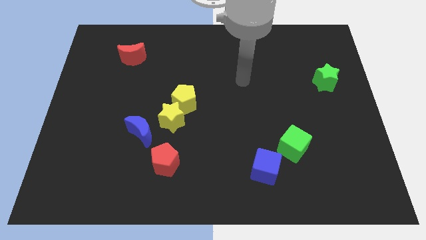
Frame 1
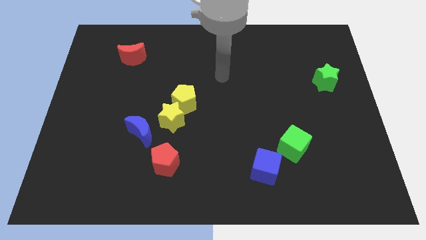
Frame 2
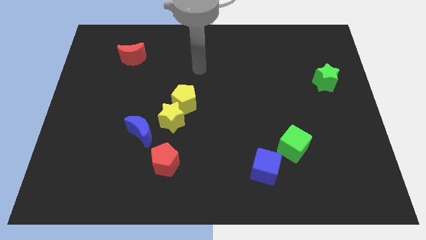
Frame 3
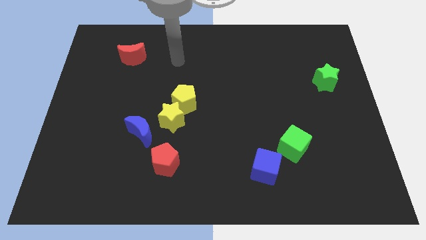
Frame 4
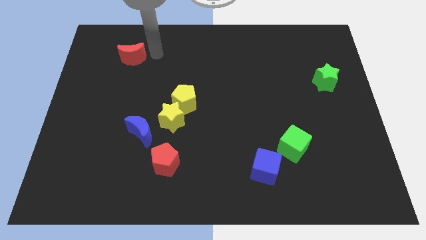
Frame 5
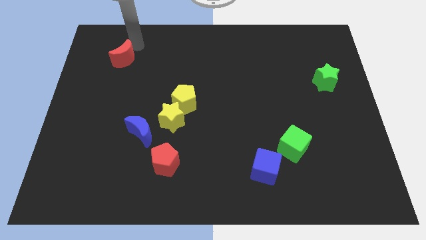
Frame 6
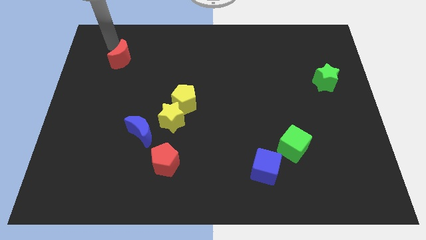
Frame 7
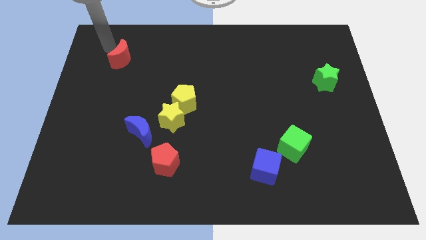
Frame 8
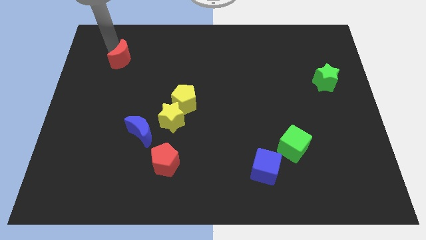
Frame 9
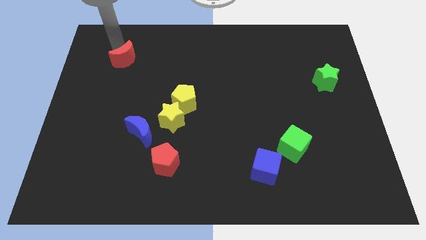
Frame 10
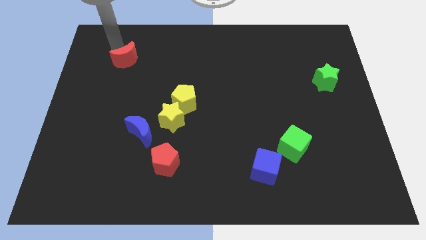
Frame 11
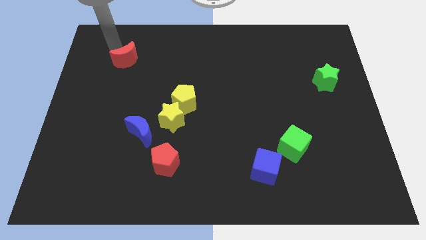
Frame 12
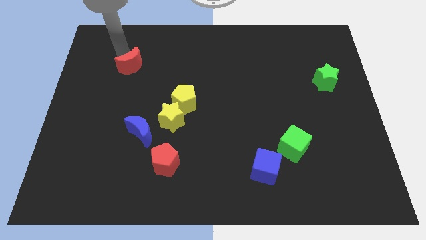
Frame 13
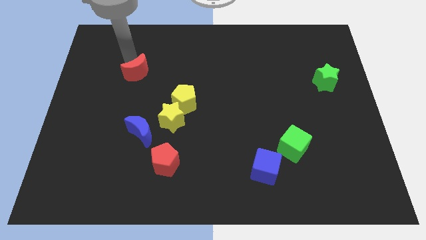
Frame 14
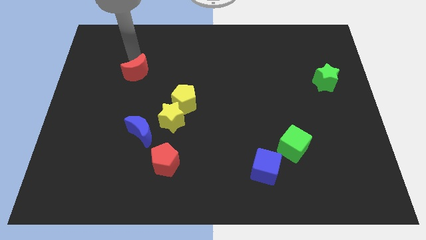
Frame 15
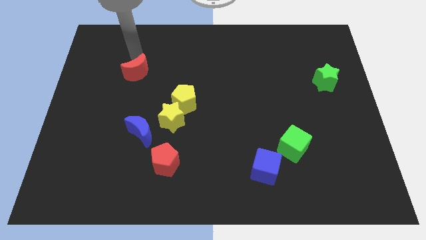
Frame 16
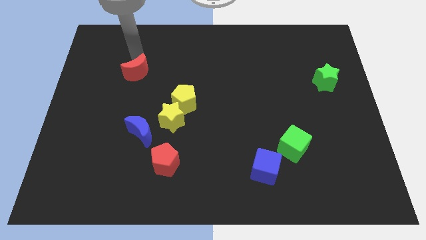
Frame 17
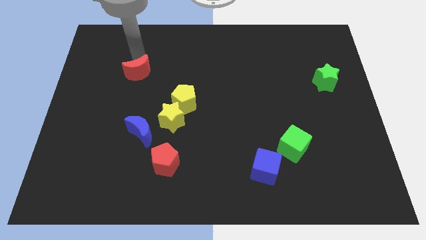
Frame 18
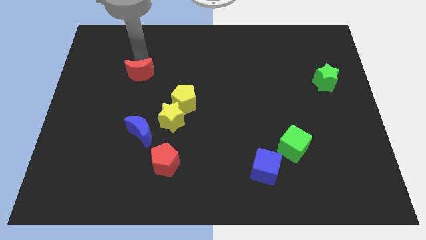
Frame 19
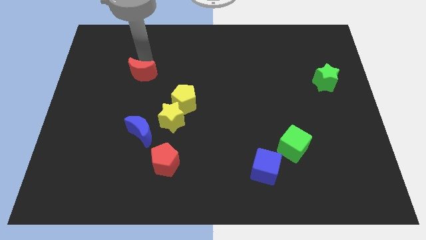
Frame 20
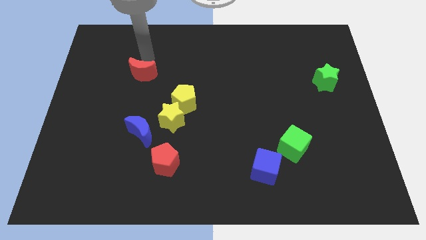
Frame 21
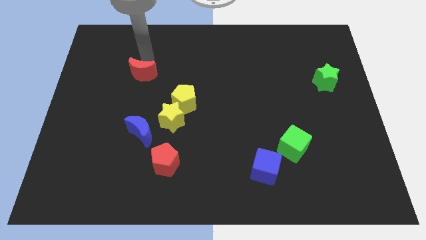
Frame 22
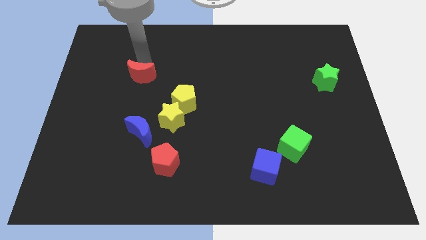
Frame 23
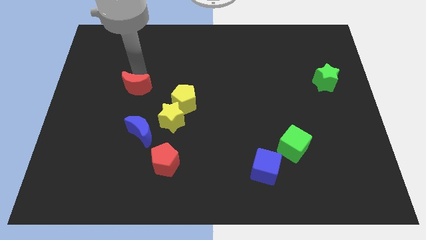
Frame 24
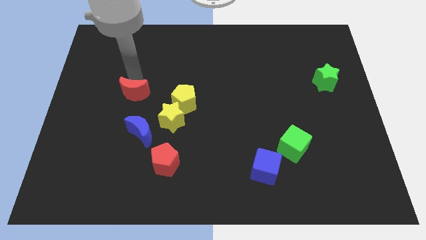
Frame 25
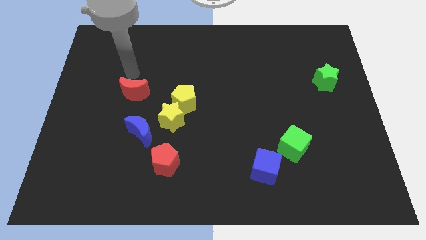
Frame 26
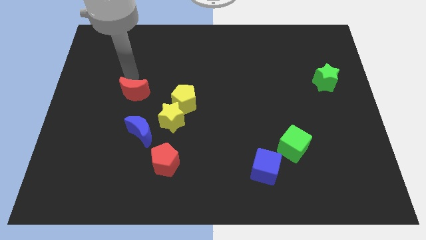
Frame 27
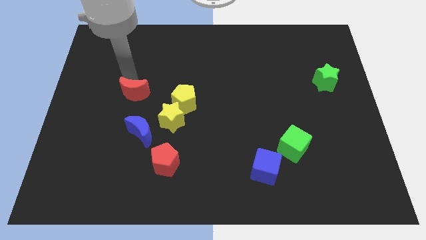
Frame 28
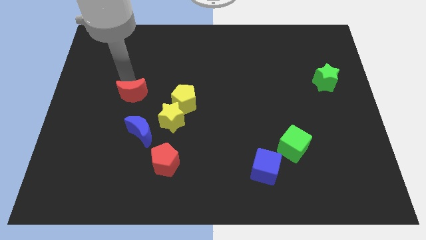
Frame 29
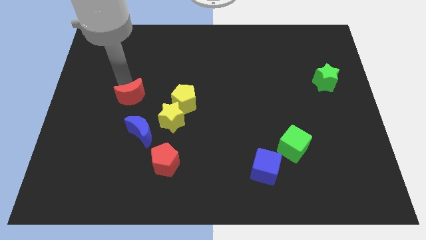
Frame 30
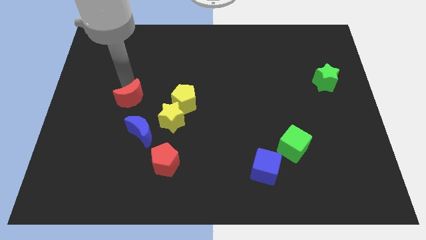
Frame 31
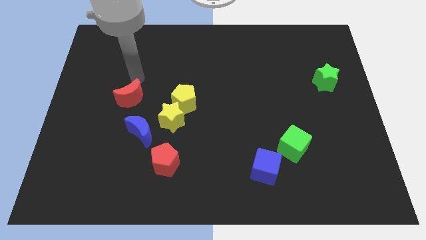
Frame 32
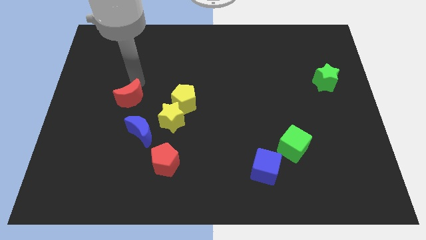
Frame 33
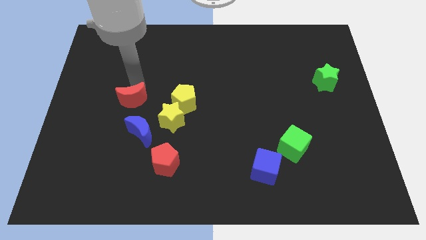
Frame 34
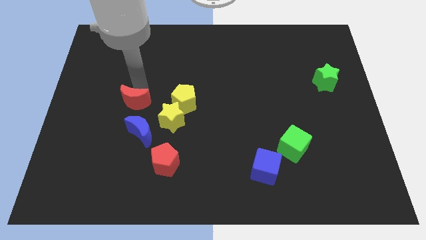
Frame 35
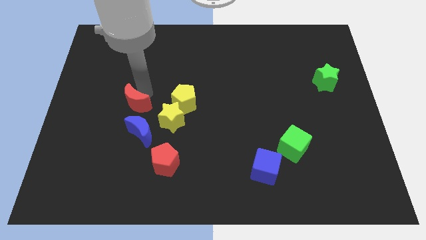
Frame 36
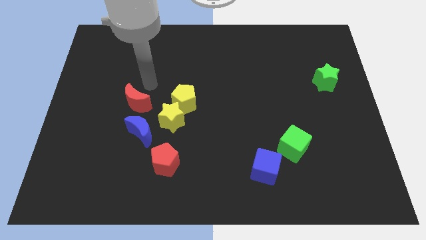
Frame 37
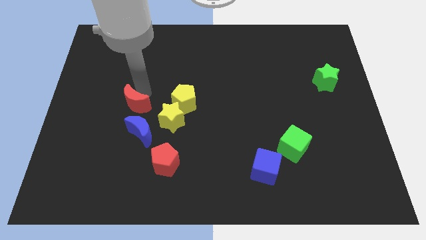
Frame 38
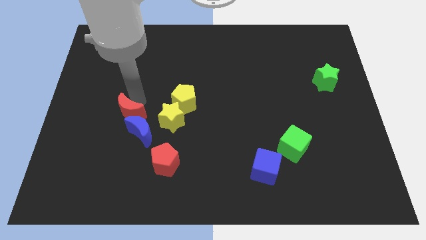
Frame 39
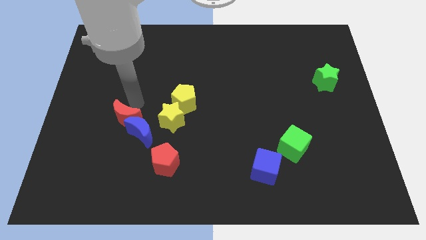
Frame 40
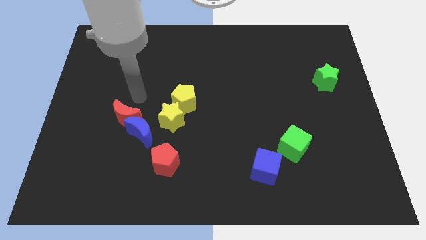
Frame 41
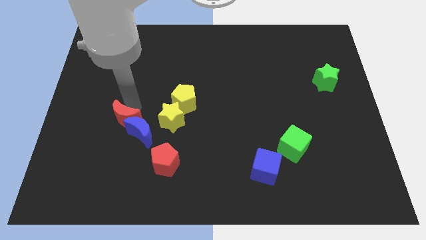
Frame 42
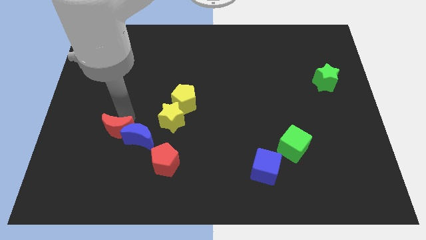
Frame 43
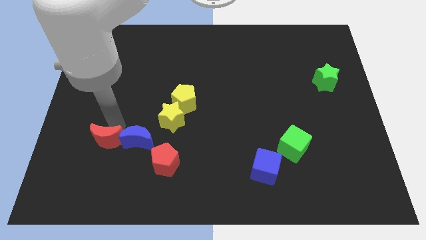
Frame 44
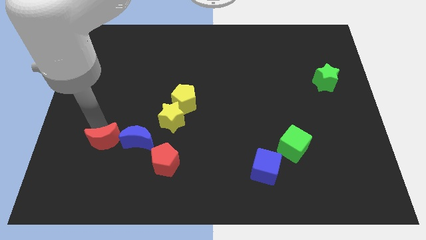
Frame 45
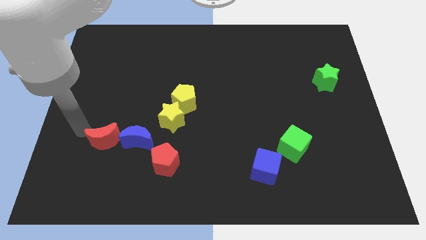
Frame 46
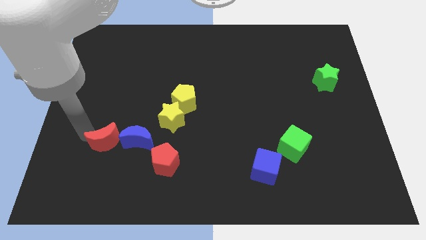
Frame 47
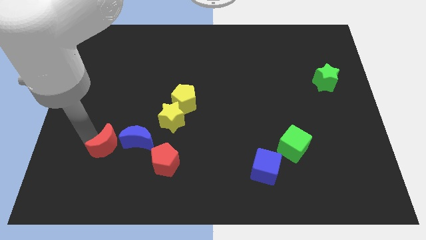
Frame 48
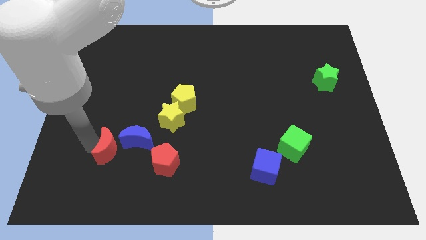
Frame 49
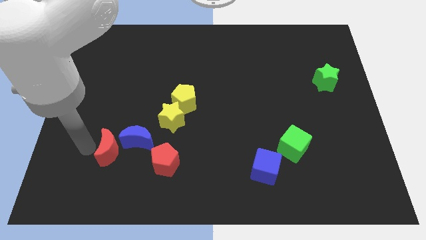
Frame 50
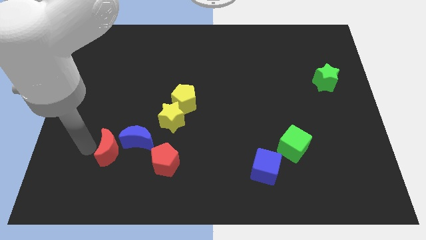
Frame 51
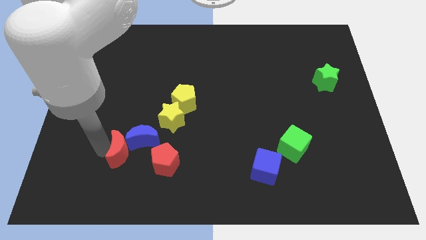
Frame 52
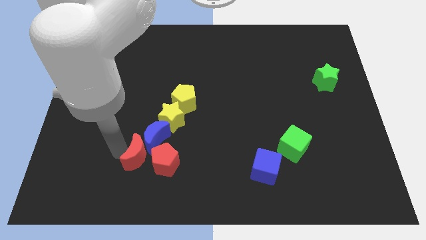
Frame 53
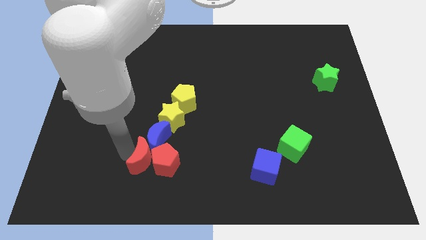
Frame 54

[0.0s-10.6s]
slide the red moon close to the red pentagon
